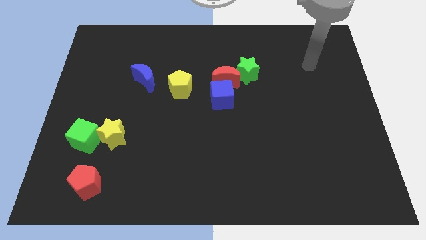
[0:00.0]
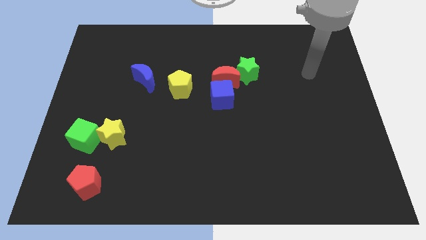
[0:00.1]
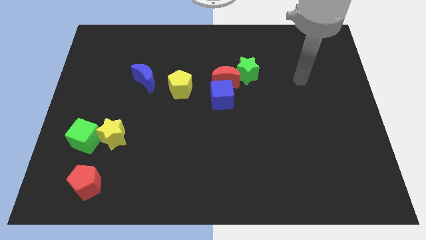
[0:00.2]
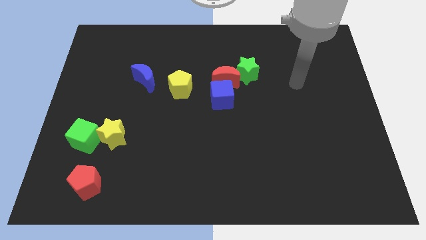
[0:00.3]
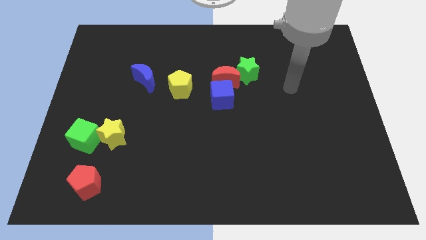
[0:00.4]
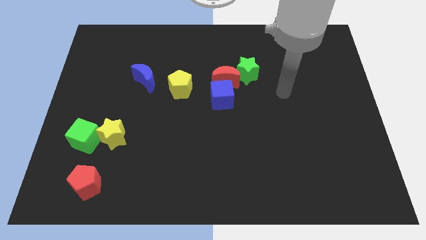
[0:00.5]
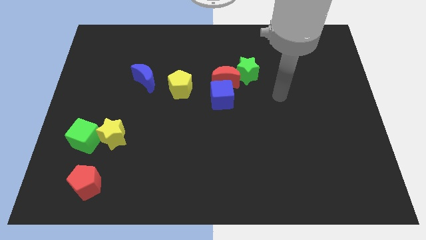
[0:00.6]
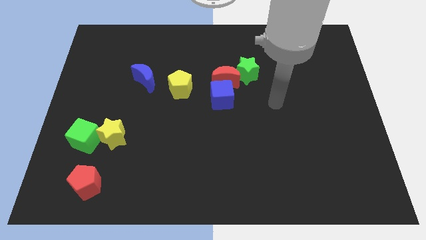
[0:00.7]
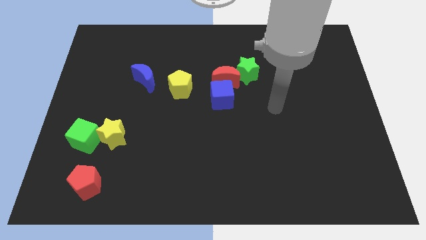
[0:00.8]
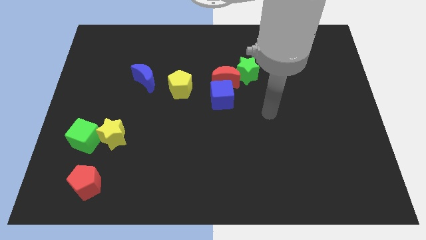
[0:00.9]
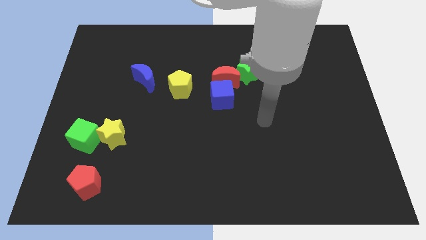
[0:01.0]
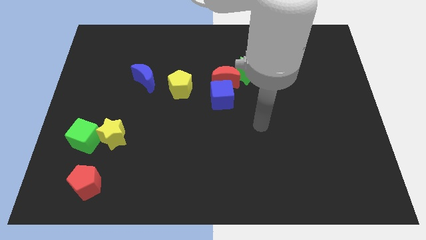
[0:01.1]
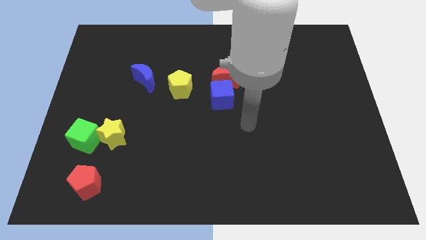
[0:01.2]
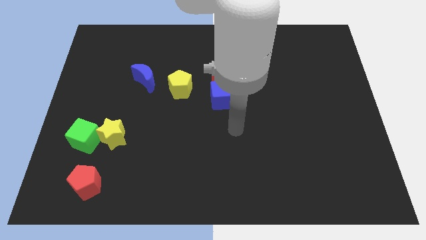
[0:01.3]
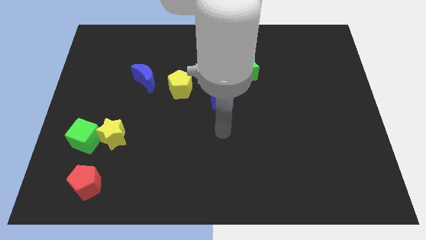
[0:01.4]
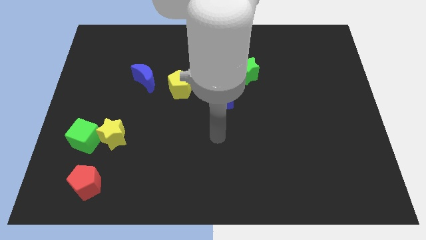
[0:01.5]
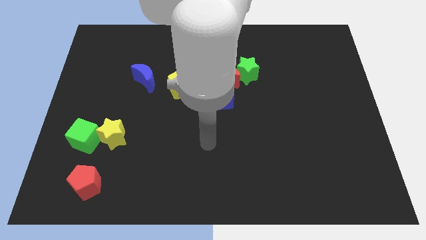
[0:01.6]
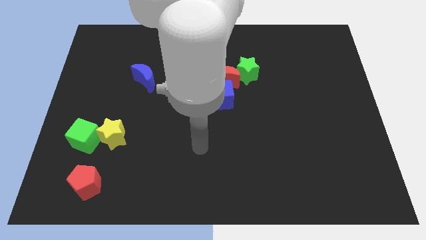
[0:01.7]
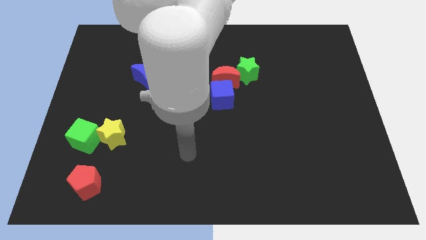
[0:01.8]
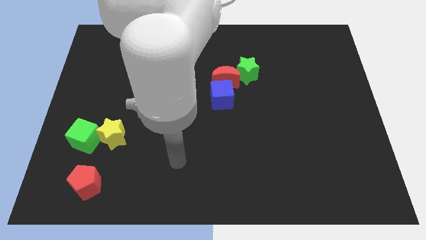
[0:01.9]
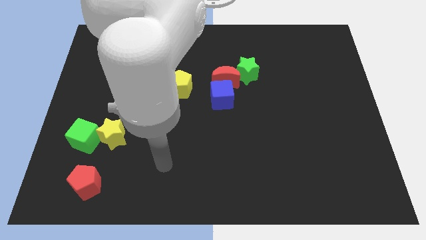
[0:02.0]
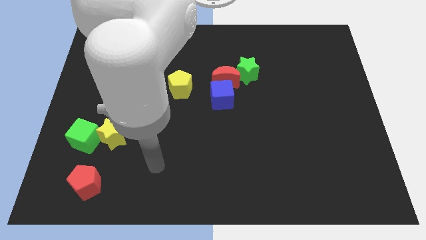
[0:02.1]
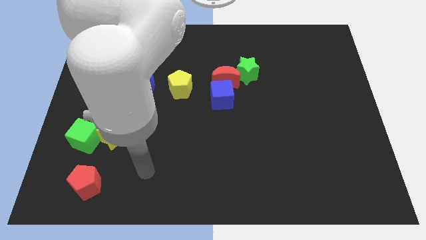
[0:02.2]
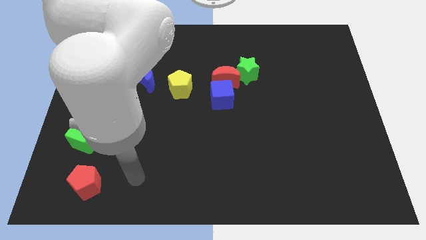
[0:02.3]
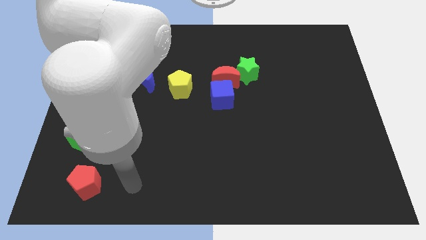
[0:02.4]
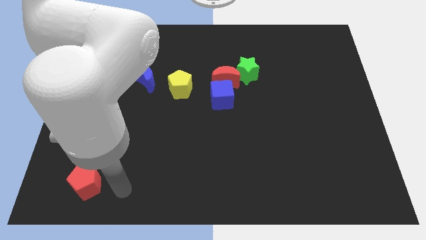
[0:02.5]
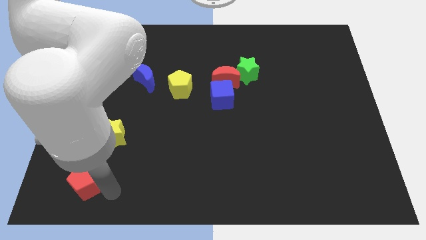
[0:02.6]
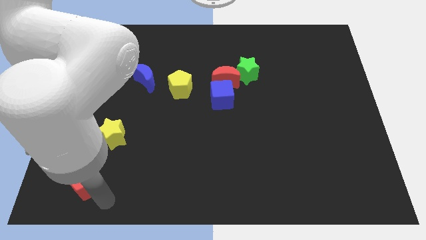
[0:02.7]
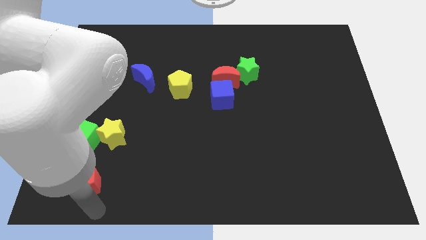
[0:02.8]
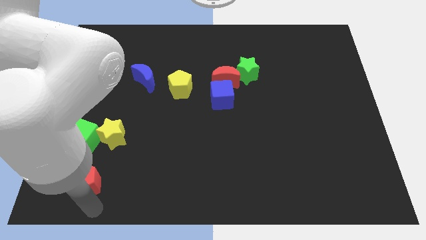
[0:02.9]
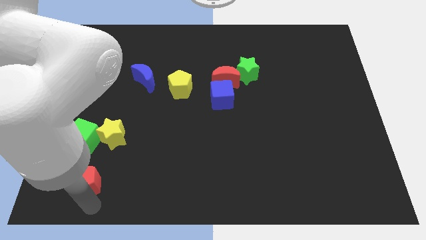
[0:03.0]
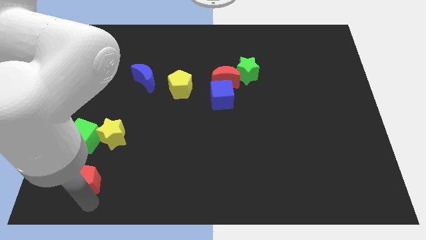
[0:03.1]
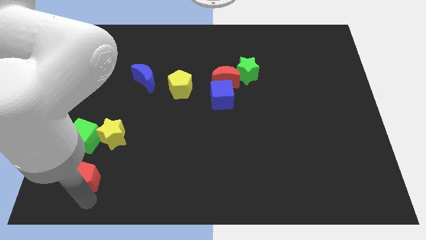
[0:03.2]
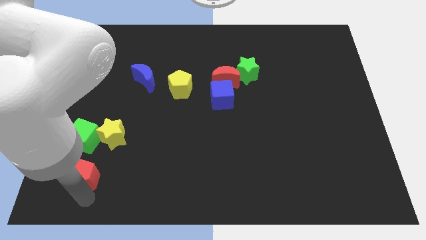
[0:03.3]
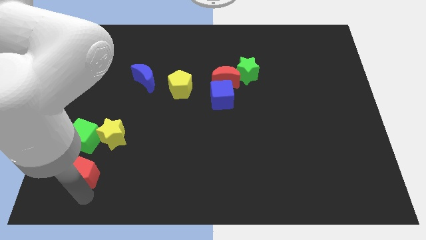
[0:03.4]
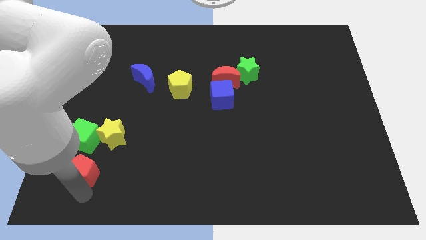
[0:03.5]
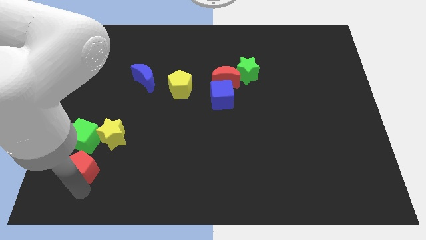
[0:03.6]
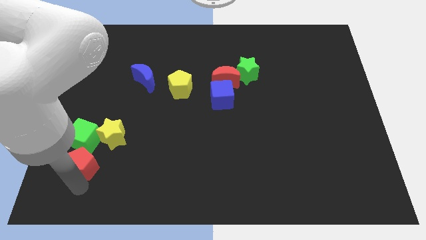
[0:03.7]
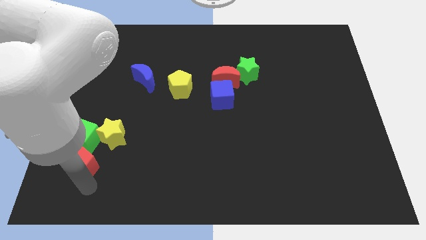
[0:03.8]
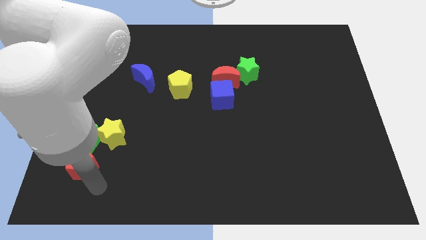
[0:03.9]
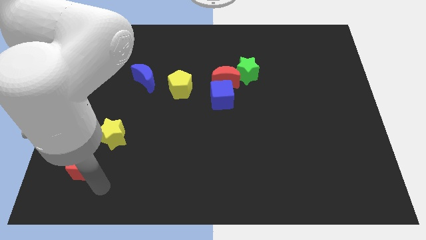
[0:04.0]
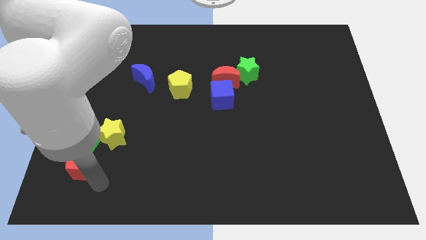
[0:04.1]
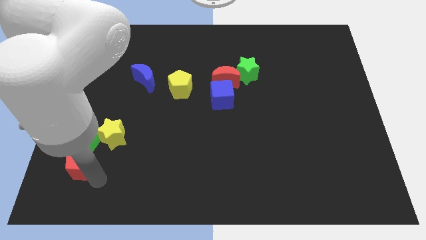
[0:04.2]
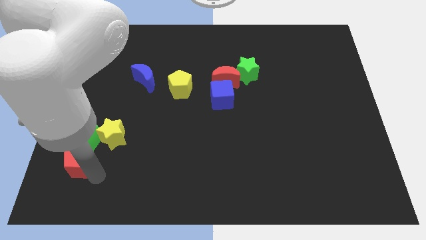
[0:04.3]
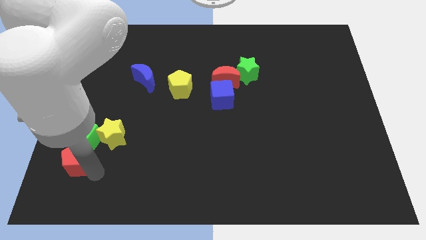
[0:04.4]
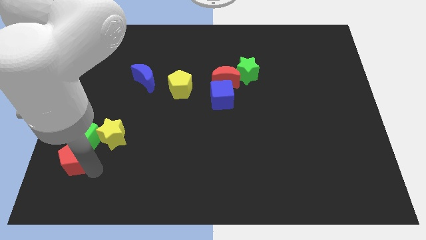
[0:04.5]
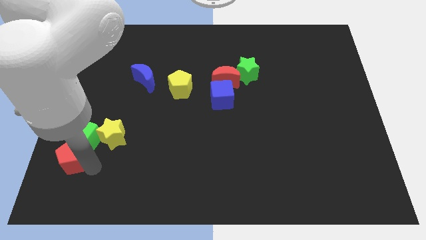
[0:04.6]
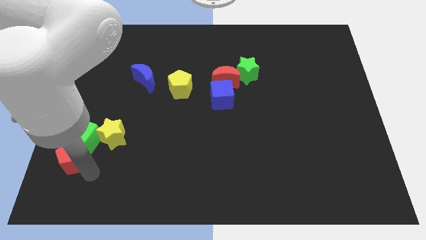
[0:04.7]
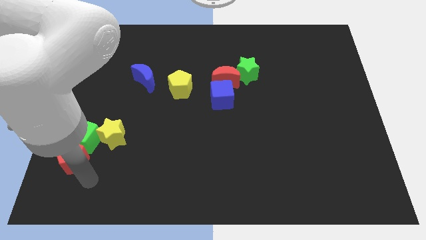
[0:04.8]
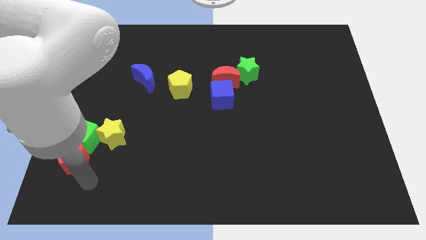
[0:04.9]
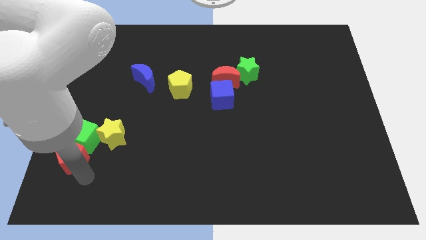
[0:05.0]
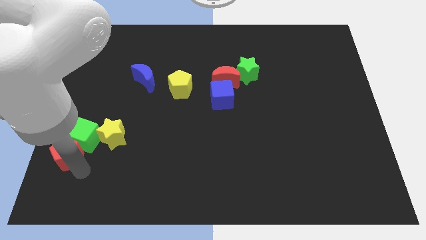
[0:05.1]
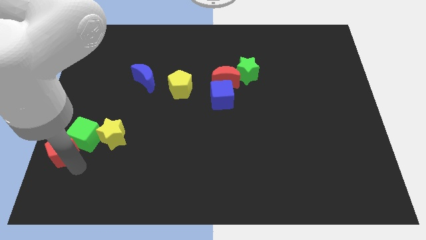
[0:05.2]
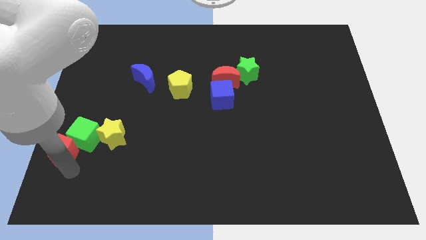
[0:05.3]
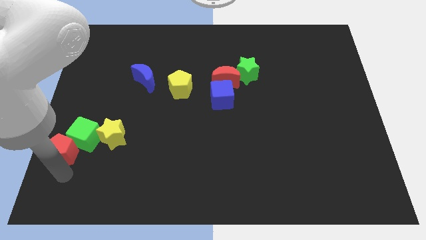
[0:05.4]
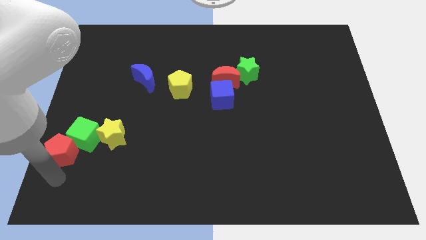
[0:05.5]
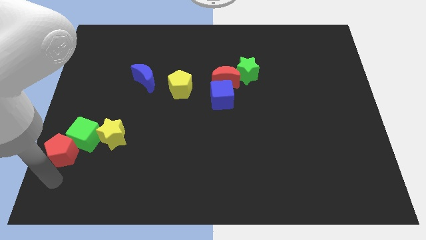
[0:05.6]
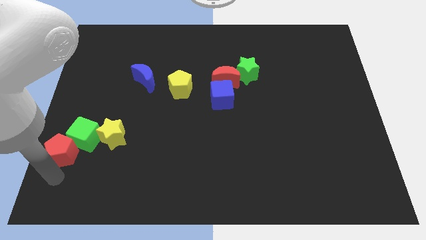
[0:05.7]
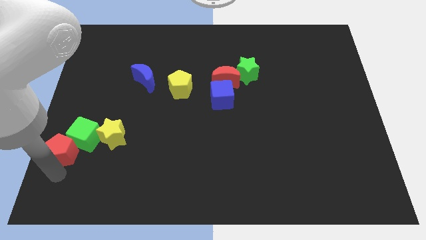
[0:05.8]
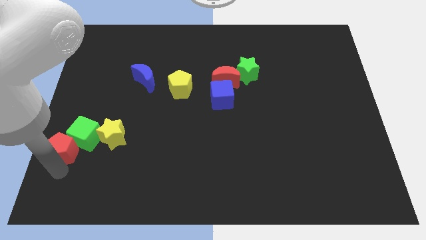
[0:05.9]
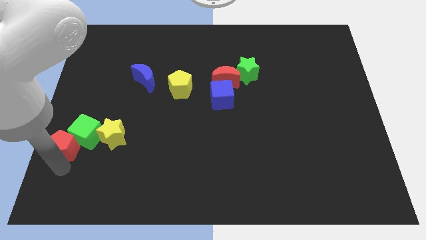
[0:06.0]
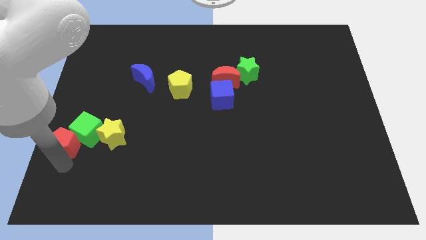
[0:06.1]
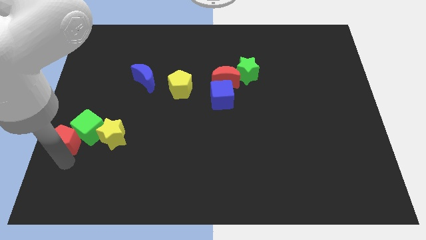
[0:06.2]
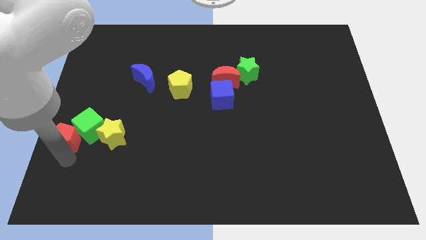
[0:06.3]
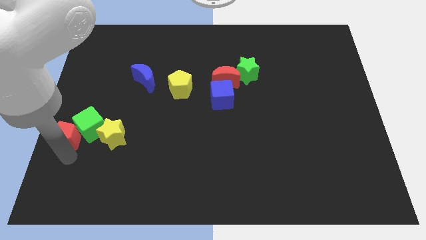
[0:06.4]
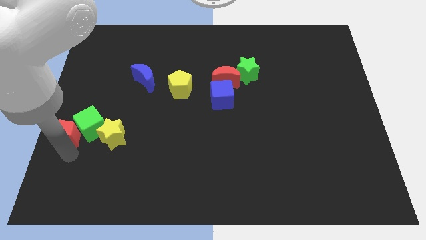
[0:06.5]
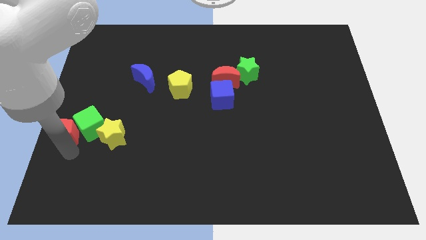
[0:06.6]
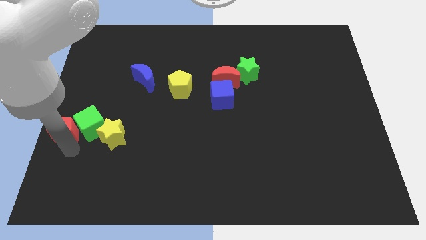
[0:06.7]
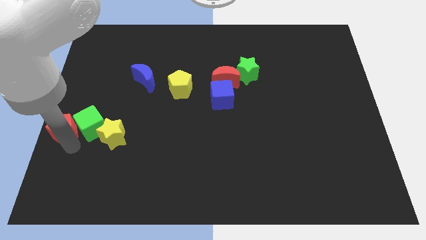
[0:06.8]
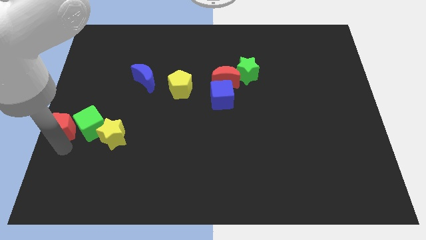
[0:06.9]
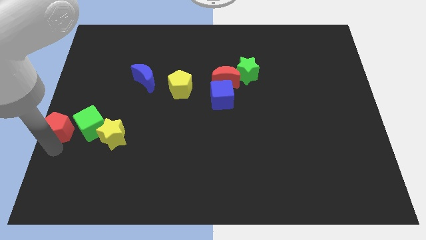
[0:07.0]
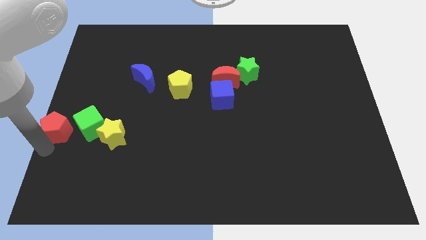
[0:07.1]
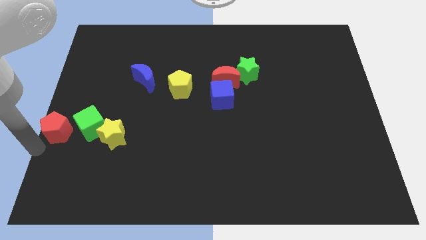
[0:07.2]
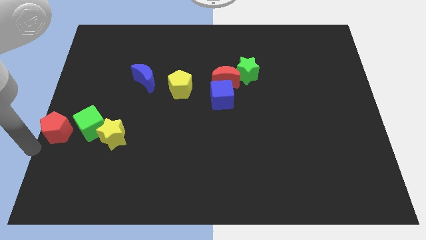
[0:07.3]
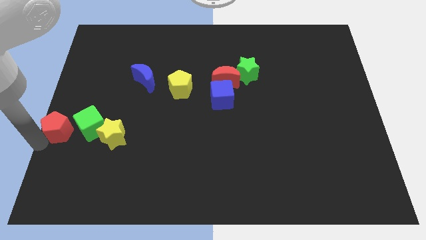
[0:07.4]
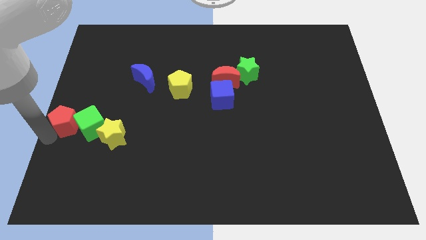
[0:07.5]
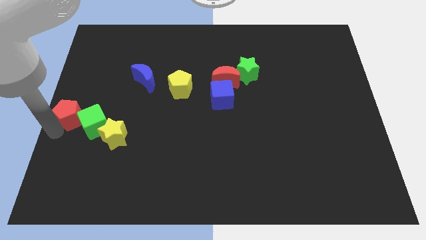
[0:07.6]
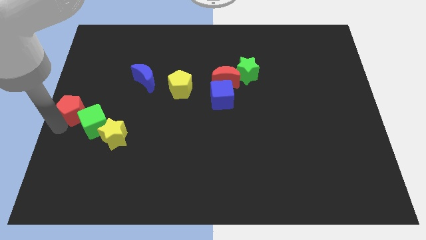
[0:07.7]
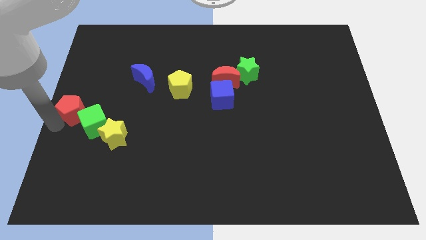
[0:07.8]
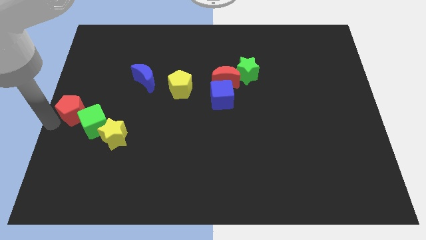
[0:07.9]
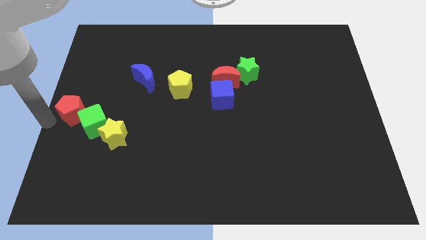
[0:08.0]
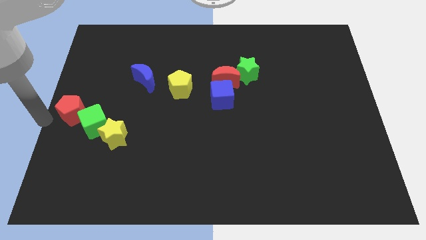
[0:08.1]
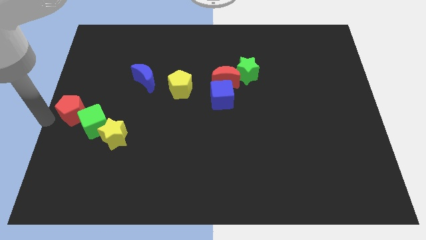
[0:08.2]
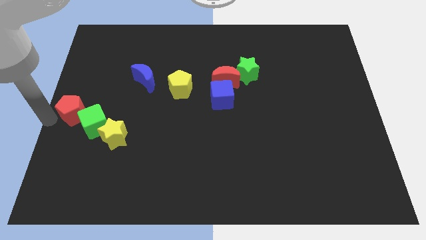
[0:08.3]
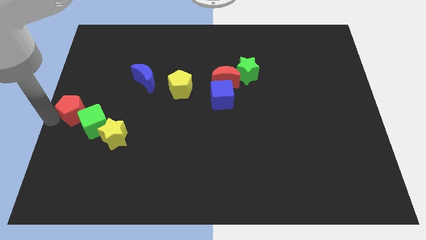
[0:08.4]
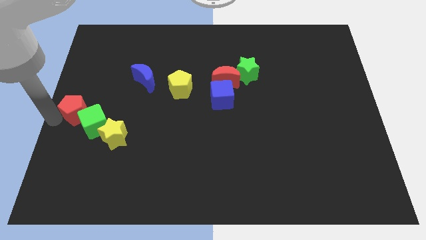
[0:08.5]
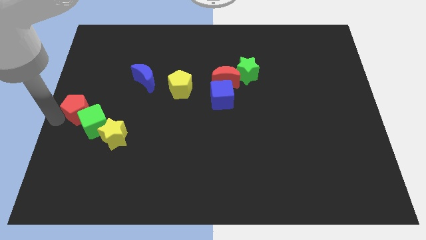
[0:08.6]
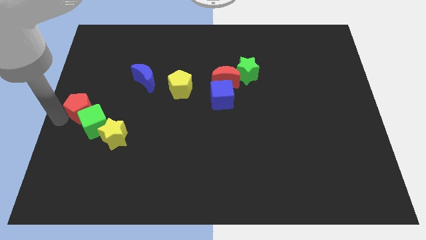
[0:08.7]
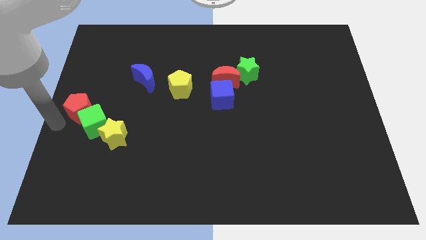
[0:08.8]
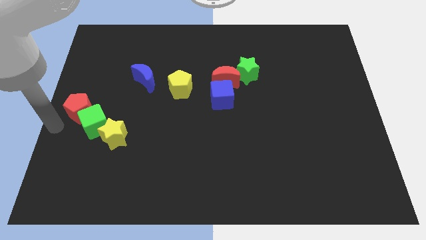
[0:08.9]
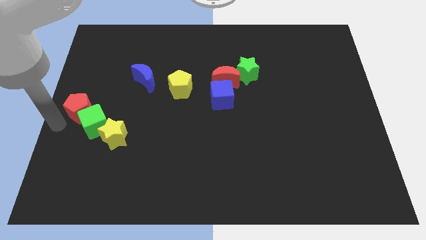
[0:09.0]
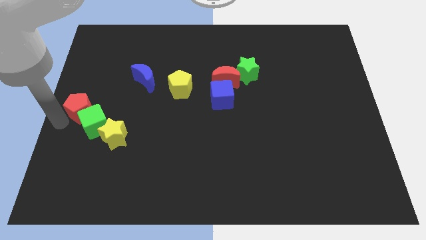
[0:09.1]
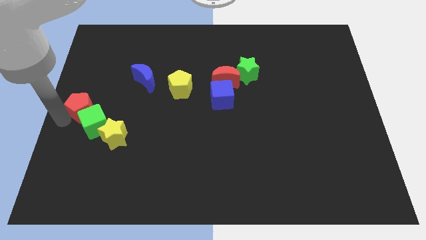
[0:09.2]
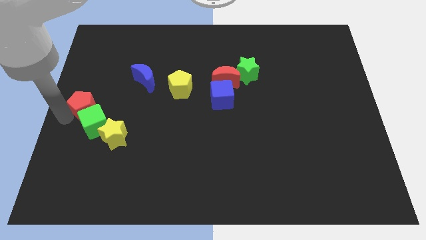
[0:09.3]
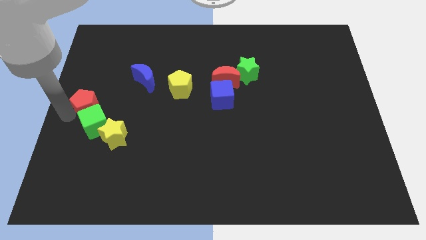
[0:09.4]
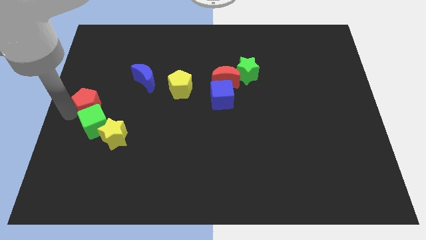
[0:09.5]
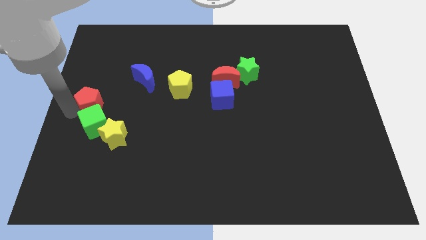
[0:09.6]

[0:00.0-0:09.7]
slide the red pentagon upwards
